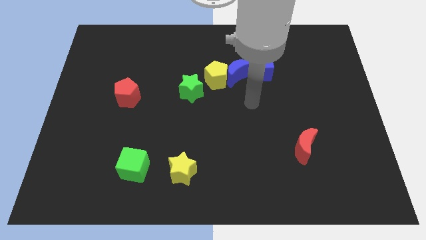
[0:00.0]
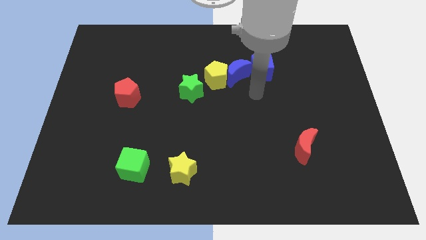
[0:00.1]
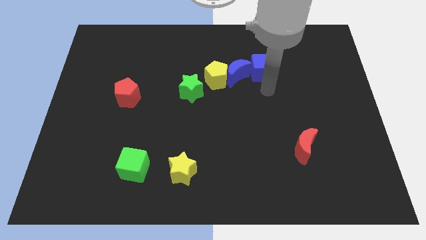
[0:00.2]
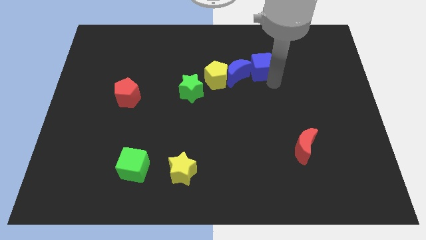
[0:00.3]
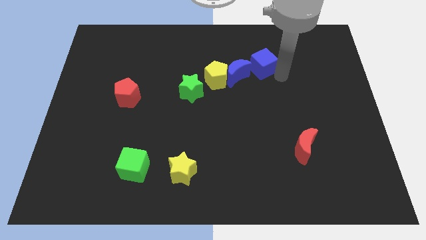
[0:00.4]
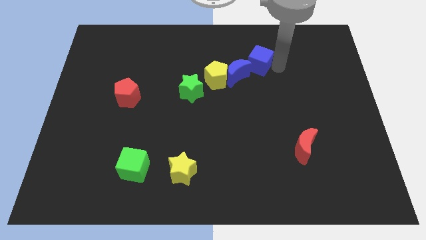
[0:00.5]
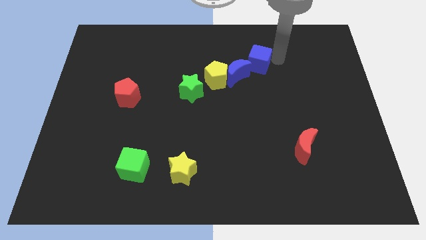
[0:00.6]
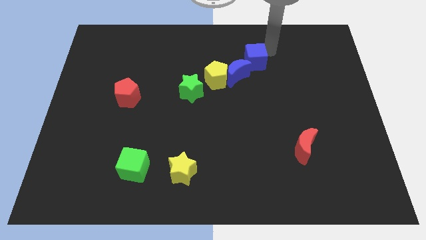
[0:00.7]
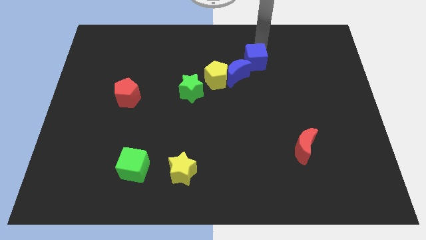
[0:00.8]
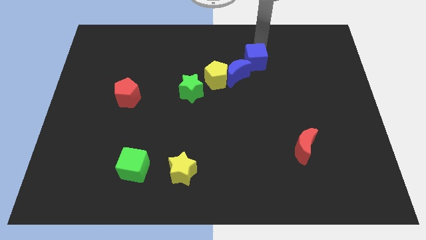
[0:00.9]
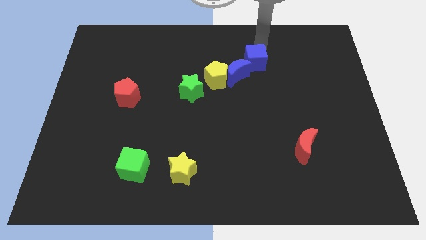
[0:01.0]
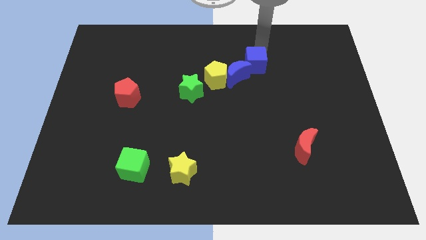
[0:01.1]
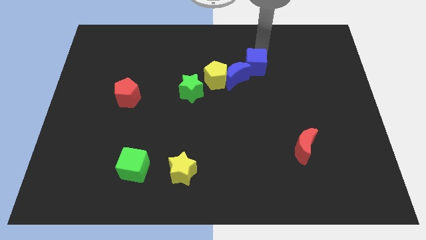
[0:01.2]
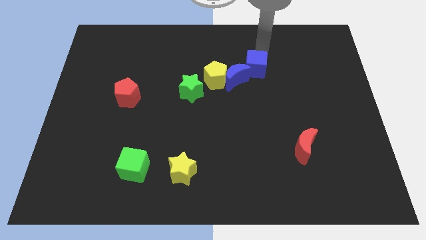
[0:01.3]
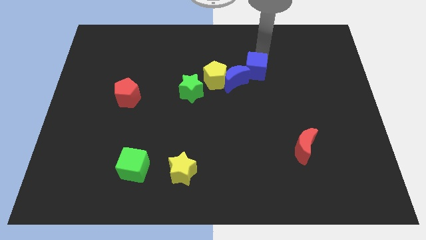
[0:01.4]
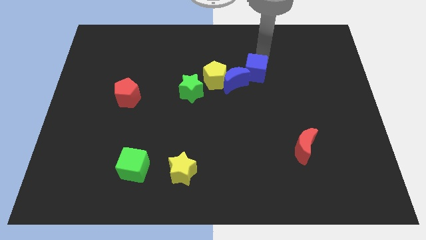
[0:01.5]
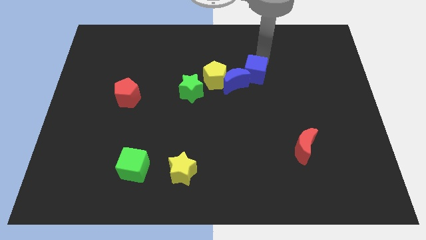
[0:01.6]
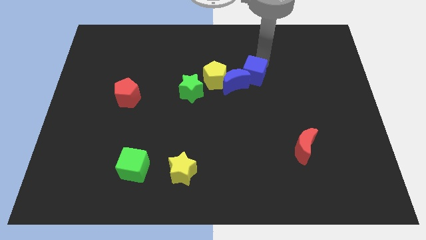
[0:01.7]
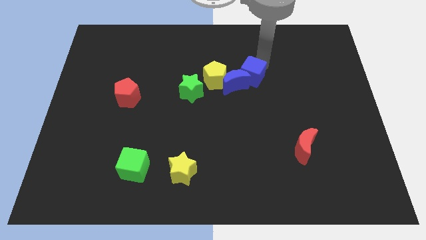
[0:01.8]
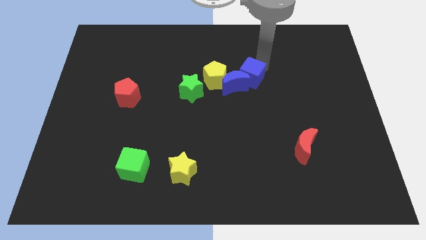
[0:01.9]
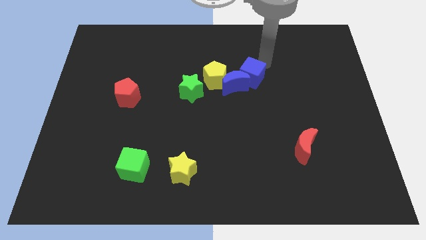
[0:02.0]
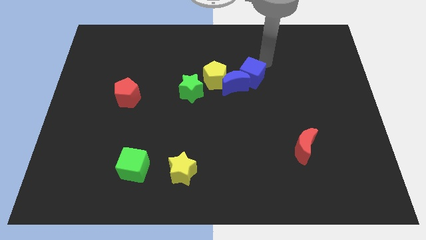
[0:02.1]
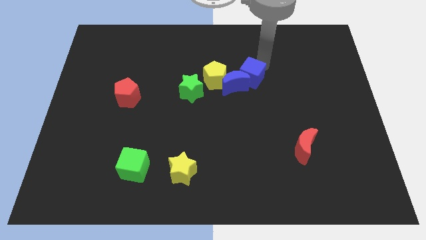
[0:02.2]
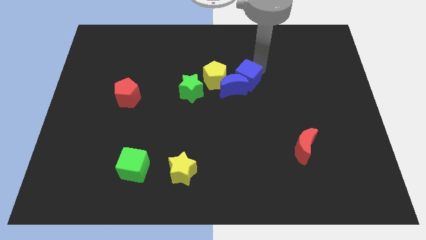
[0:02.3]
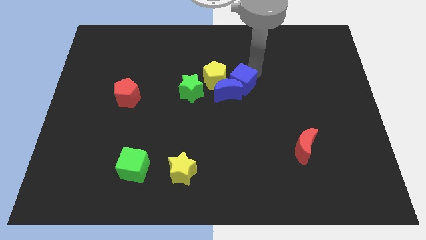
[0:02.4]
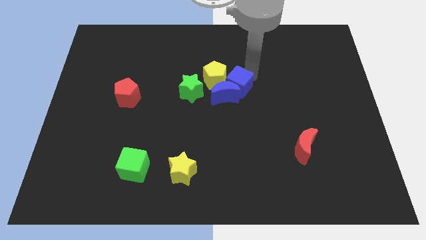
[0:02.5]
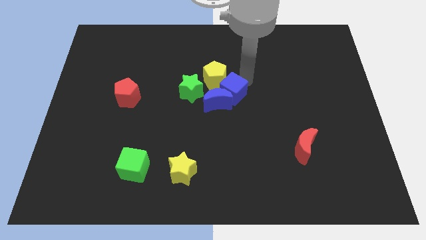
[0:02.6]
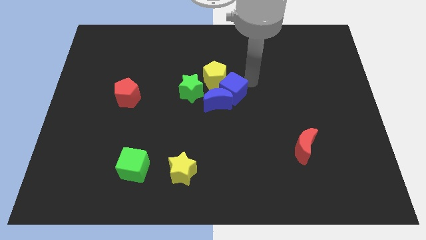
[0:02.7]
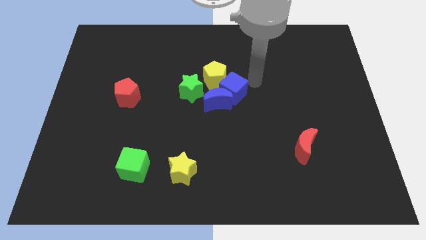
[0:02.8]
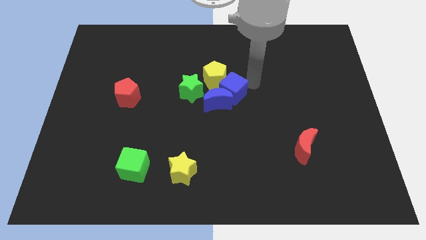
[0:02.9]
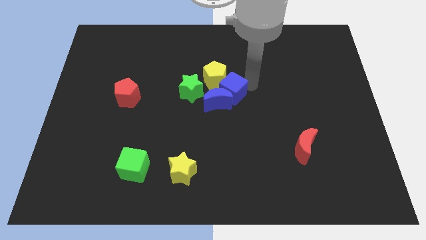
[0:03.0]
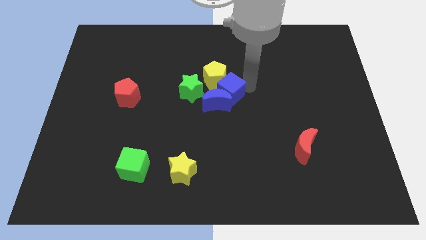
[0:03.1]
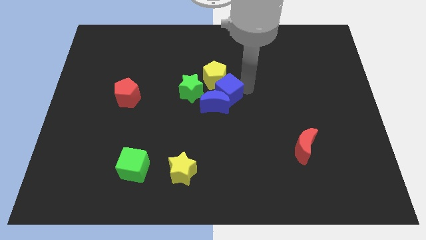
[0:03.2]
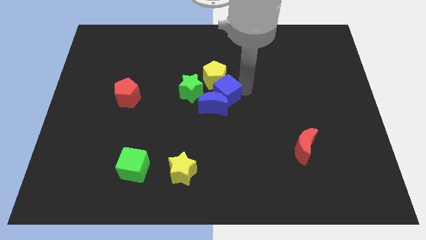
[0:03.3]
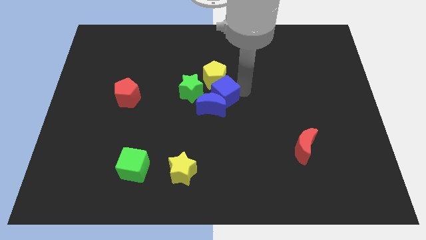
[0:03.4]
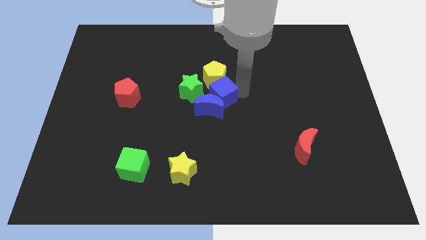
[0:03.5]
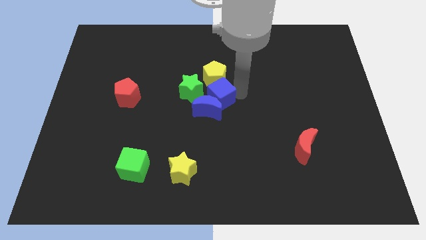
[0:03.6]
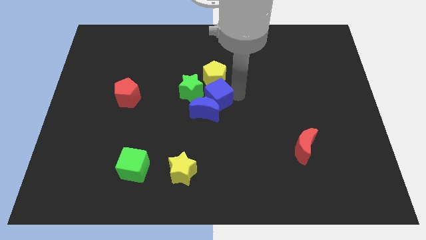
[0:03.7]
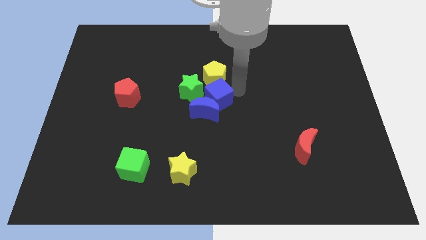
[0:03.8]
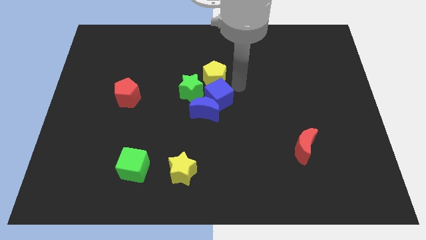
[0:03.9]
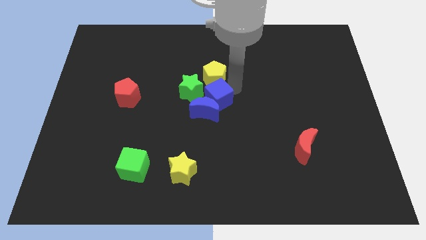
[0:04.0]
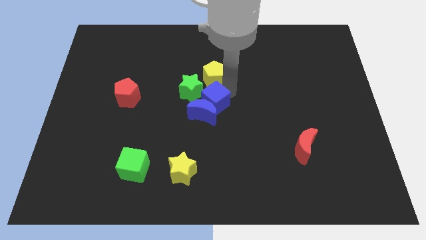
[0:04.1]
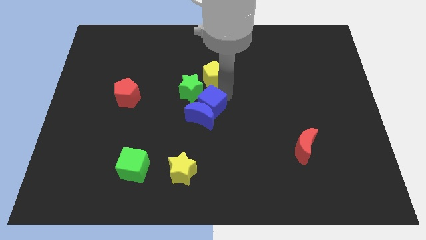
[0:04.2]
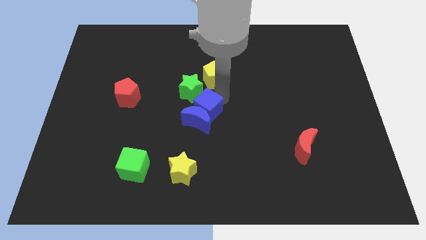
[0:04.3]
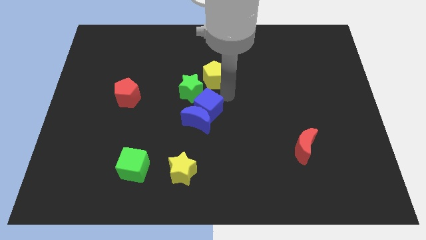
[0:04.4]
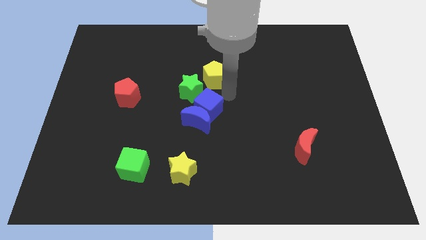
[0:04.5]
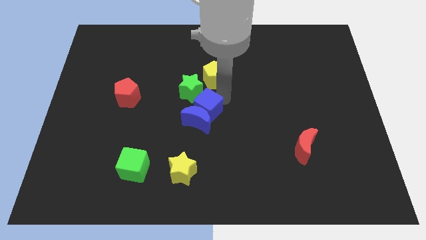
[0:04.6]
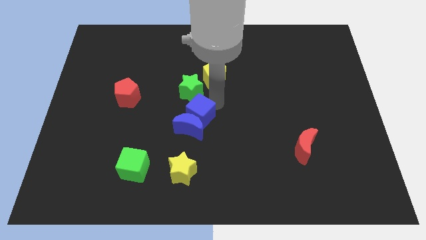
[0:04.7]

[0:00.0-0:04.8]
slide the blue cube downwards and to the left diagonally

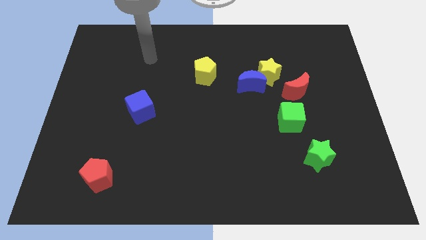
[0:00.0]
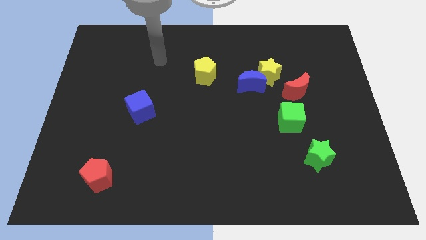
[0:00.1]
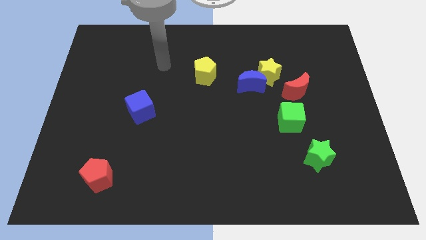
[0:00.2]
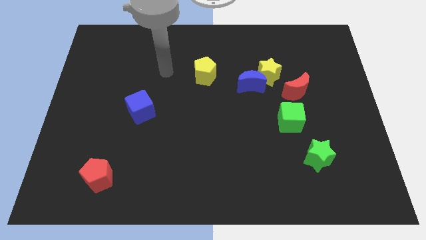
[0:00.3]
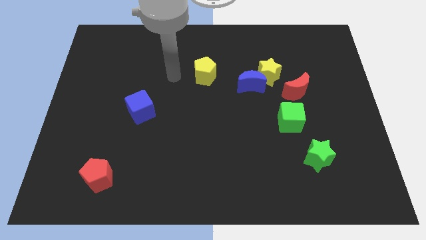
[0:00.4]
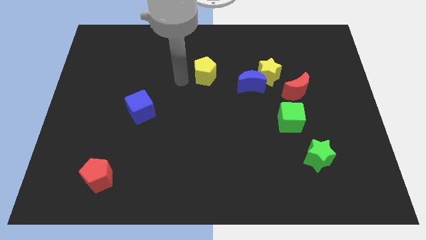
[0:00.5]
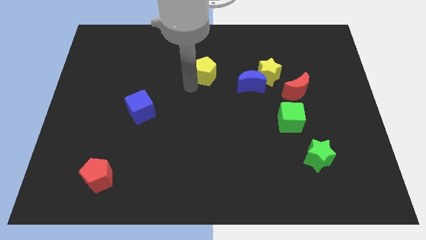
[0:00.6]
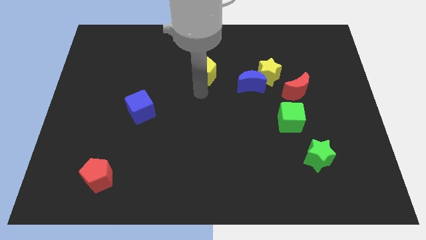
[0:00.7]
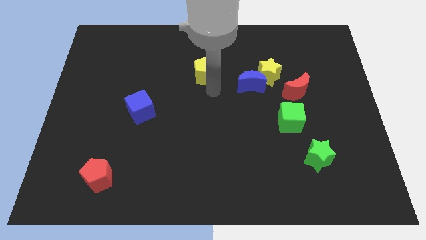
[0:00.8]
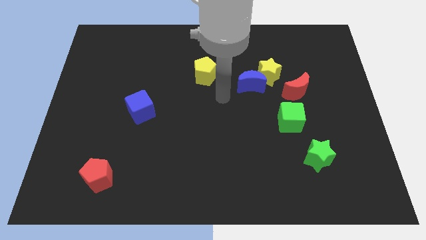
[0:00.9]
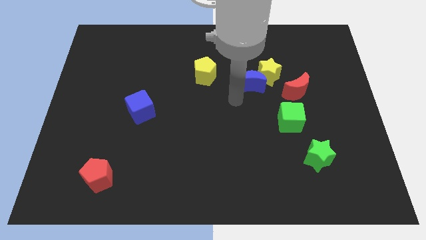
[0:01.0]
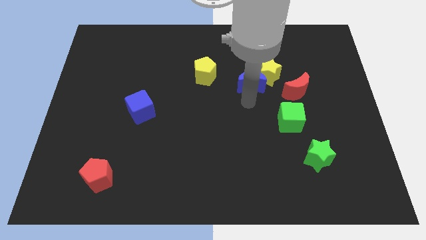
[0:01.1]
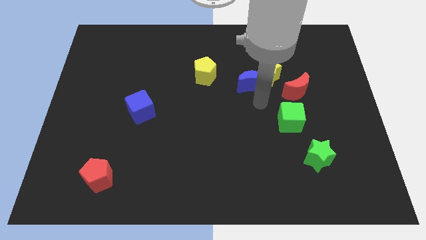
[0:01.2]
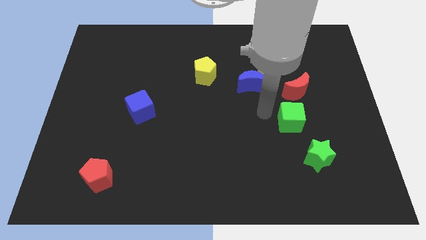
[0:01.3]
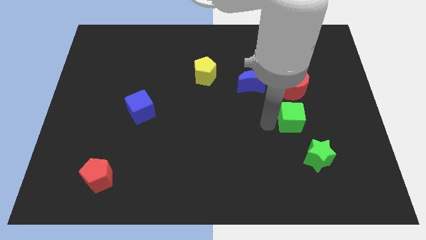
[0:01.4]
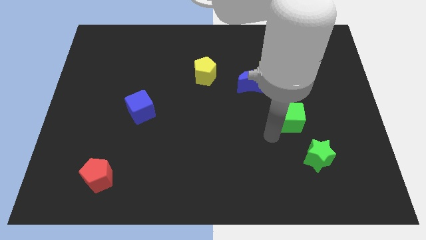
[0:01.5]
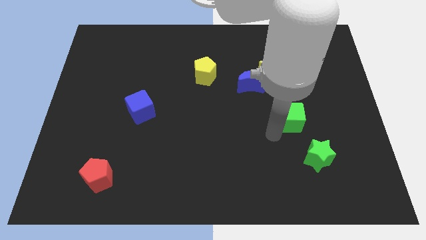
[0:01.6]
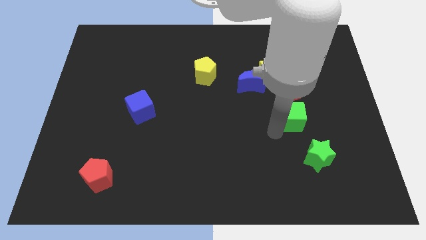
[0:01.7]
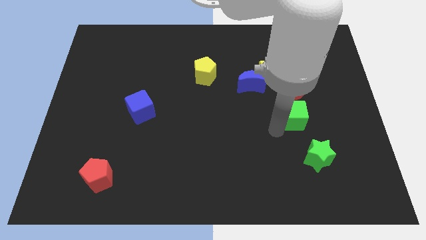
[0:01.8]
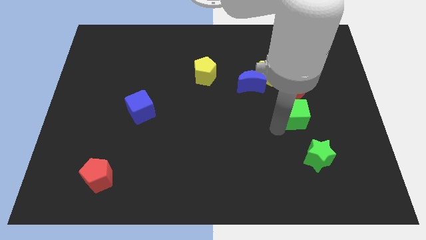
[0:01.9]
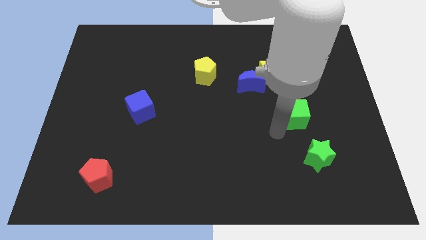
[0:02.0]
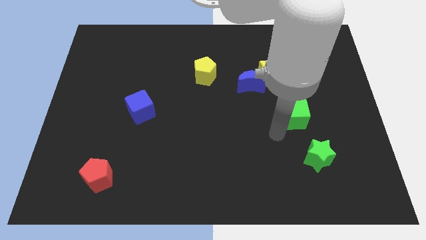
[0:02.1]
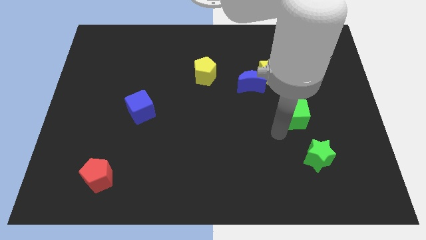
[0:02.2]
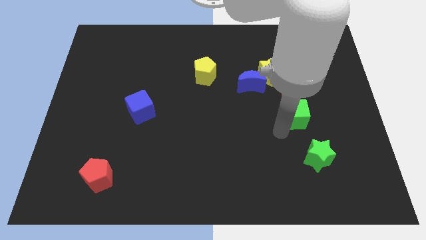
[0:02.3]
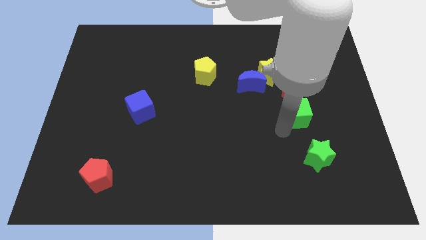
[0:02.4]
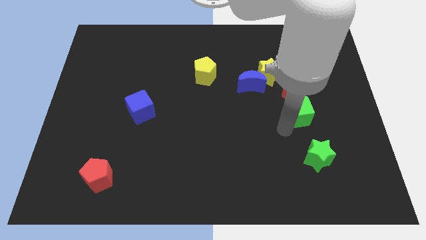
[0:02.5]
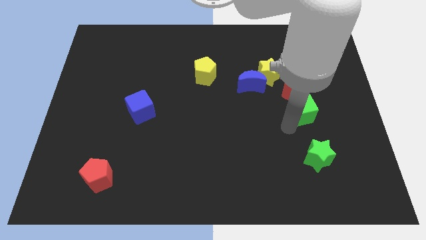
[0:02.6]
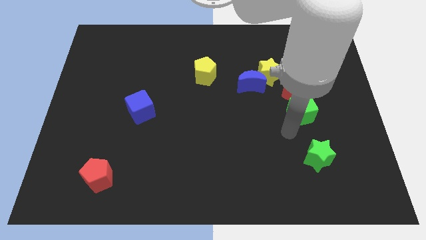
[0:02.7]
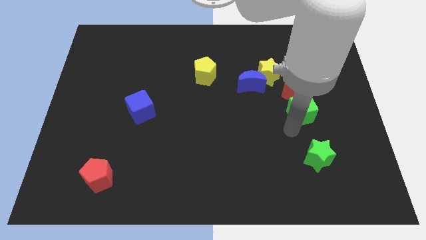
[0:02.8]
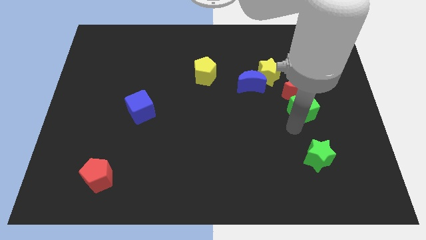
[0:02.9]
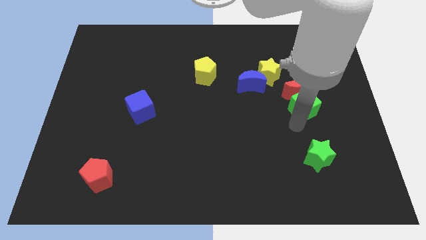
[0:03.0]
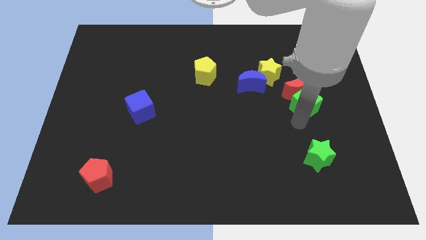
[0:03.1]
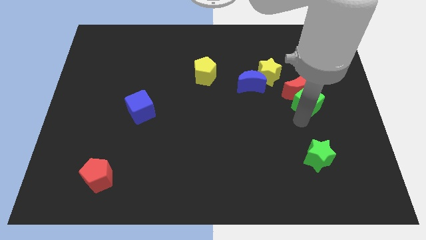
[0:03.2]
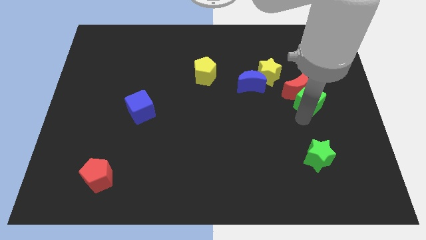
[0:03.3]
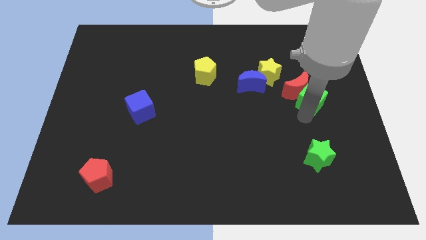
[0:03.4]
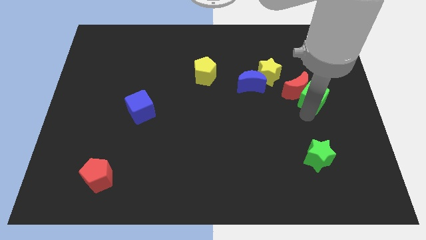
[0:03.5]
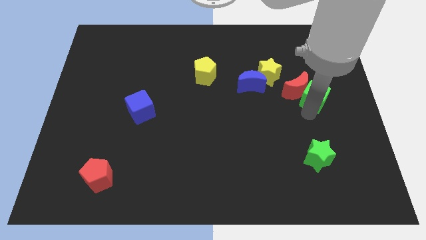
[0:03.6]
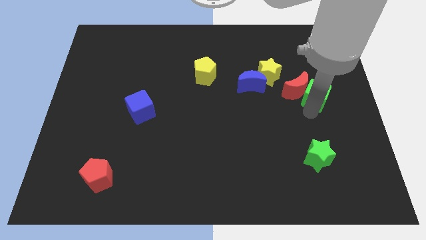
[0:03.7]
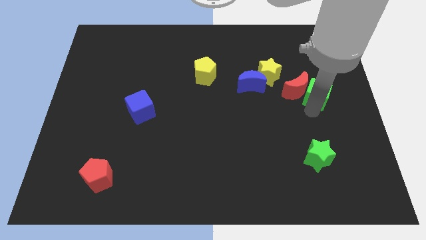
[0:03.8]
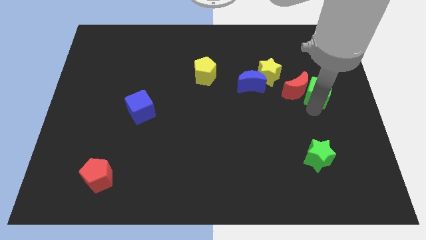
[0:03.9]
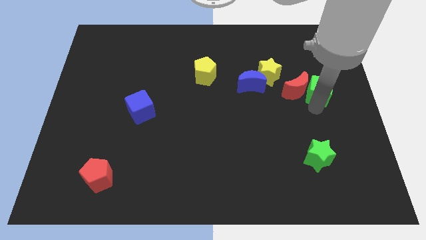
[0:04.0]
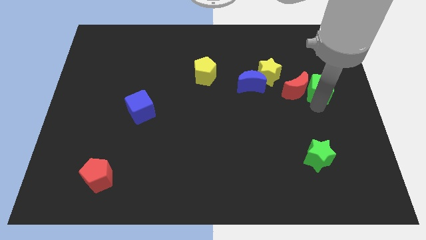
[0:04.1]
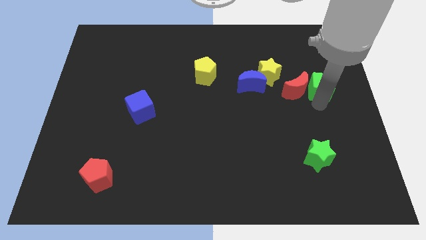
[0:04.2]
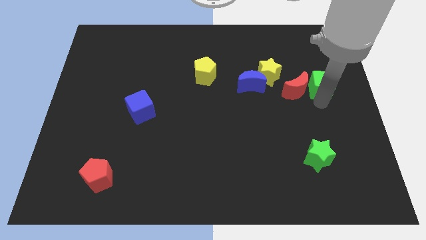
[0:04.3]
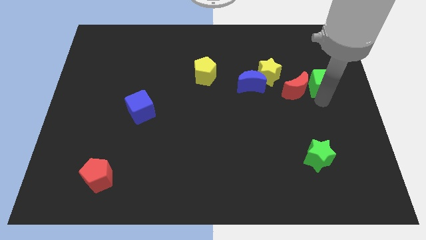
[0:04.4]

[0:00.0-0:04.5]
move the green cube upwards slightly
